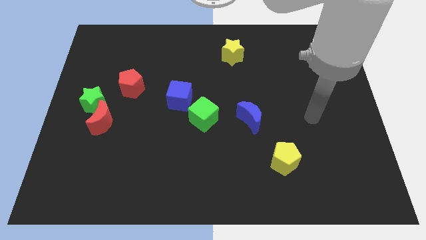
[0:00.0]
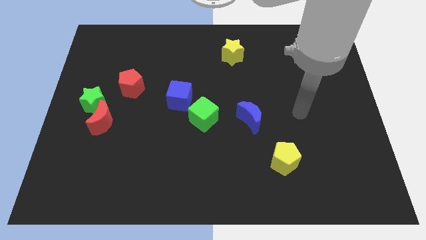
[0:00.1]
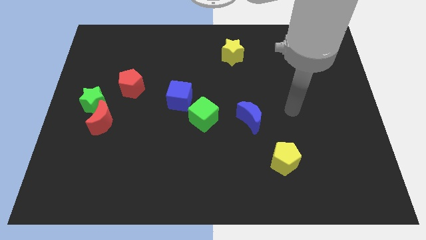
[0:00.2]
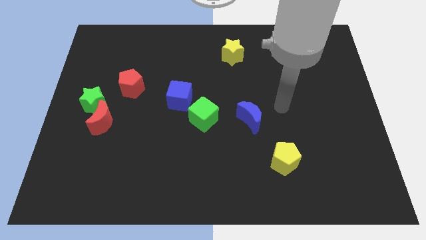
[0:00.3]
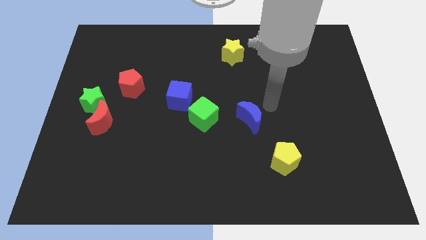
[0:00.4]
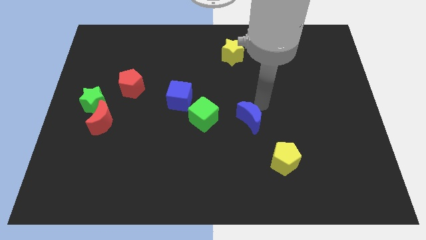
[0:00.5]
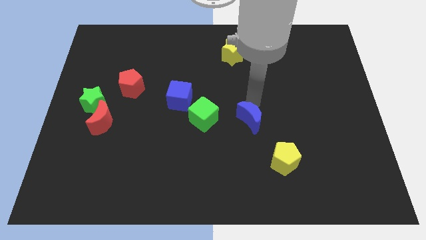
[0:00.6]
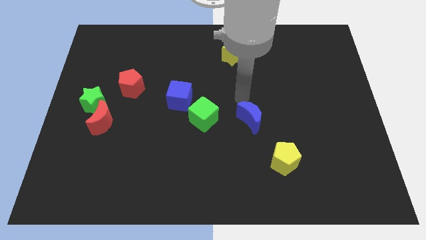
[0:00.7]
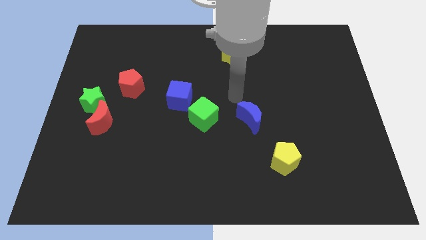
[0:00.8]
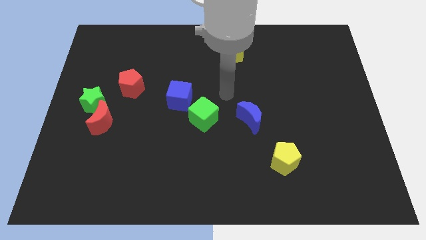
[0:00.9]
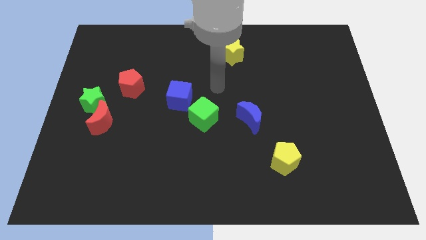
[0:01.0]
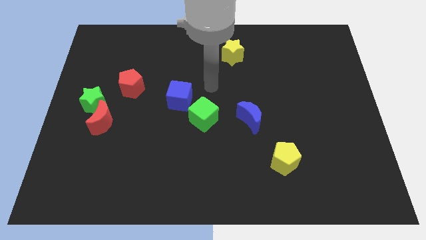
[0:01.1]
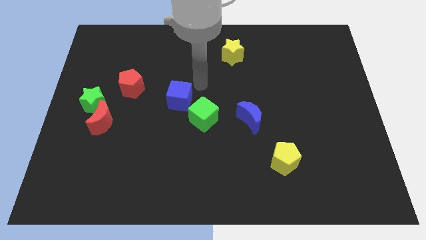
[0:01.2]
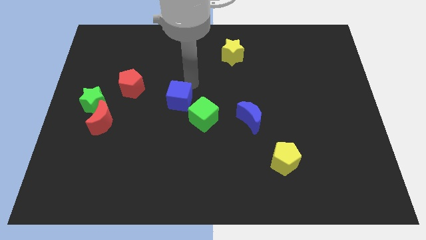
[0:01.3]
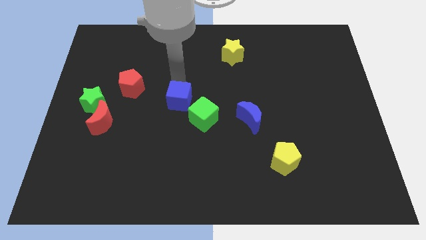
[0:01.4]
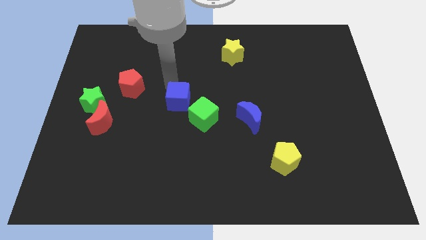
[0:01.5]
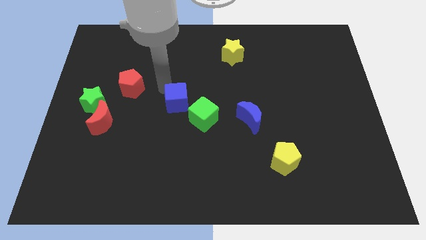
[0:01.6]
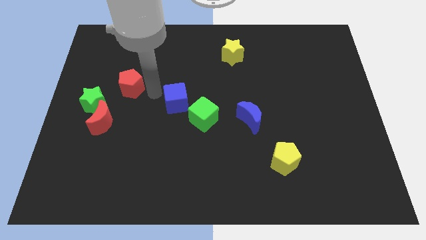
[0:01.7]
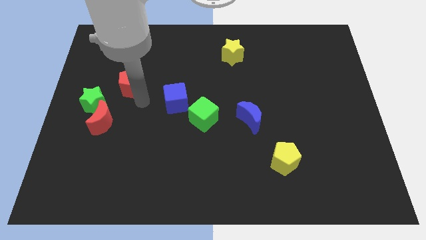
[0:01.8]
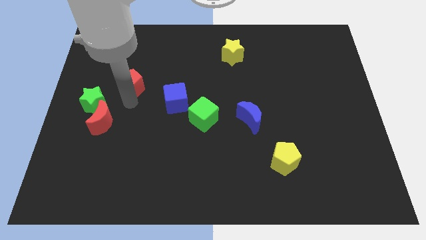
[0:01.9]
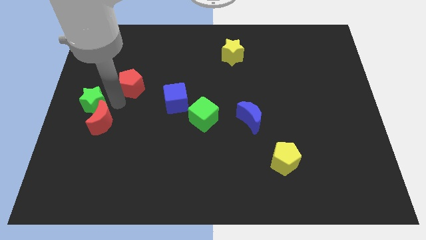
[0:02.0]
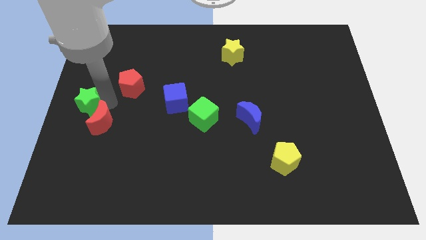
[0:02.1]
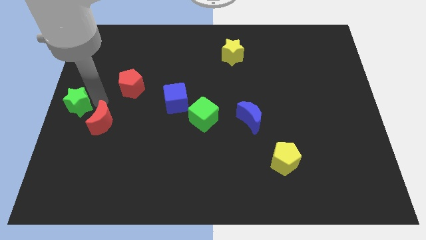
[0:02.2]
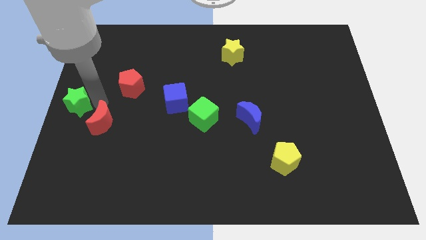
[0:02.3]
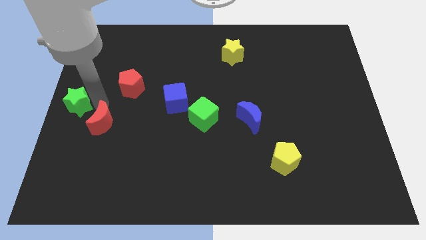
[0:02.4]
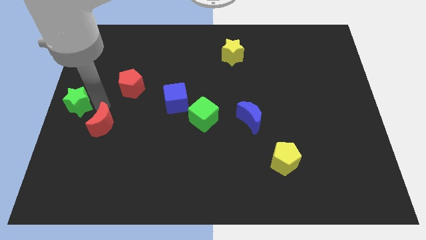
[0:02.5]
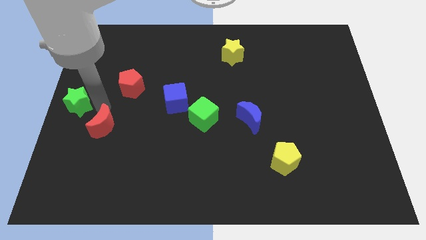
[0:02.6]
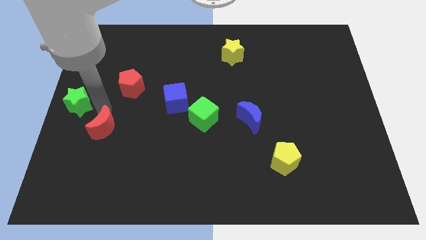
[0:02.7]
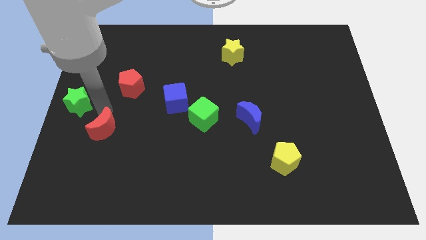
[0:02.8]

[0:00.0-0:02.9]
pull the red moon apart from the green star

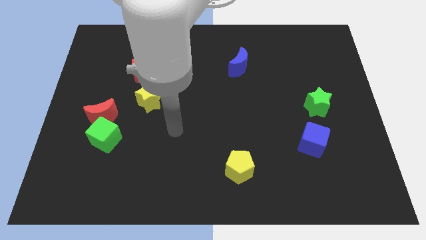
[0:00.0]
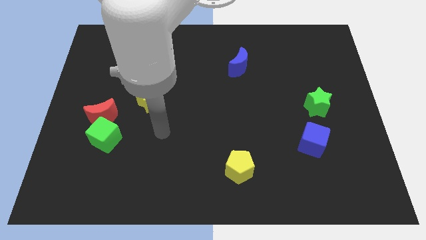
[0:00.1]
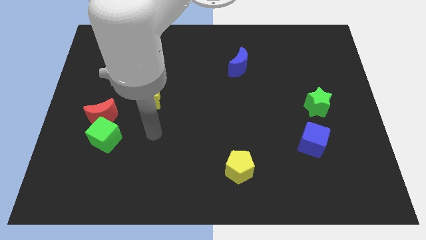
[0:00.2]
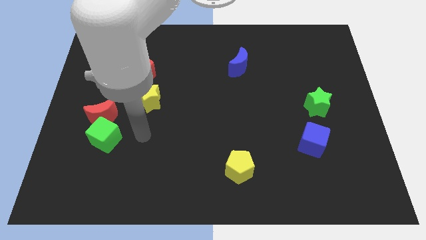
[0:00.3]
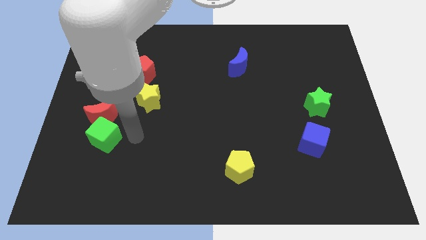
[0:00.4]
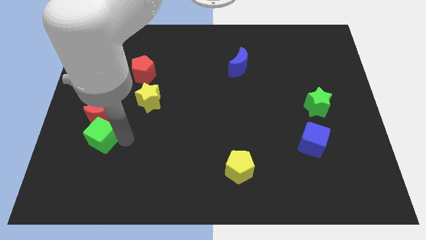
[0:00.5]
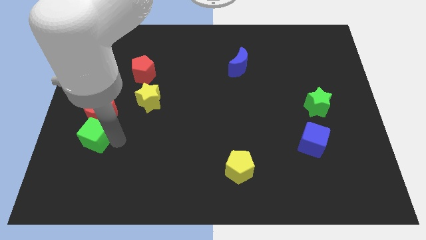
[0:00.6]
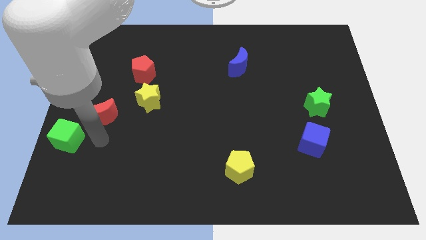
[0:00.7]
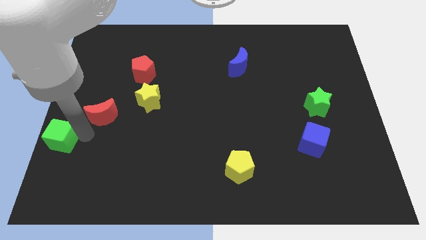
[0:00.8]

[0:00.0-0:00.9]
move the red moon away from the green cube

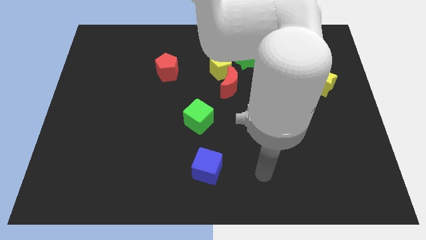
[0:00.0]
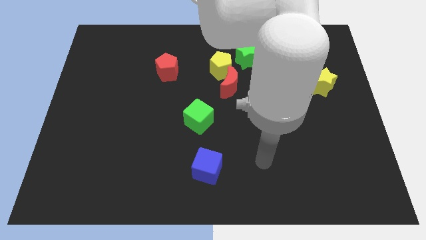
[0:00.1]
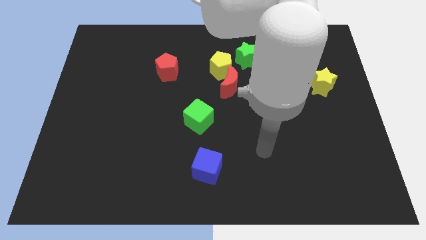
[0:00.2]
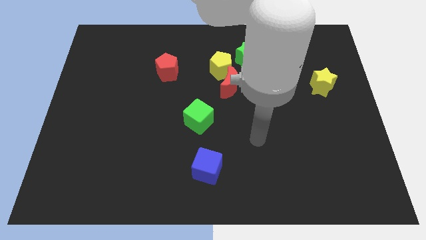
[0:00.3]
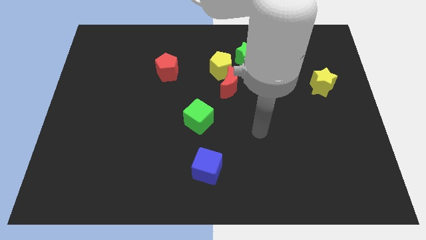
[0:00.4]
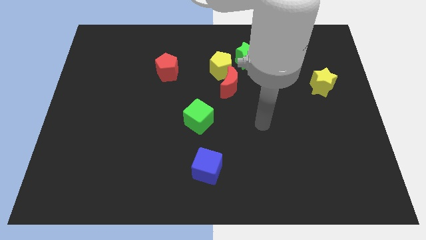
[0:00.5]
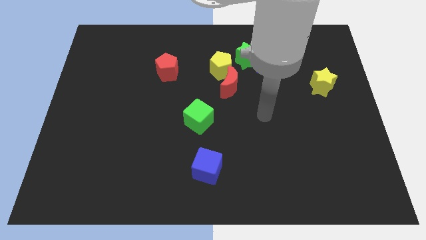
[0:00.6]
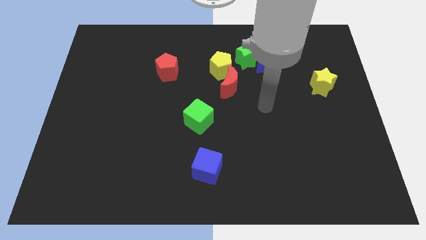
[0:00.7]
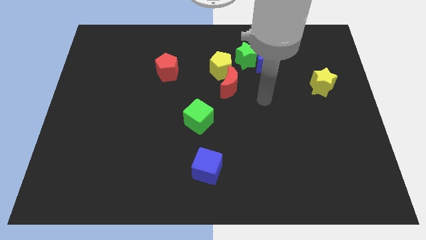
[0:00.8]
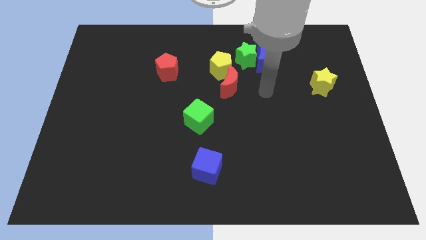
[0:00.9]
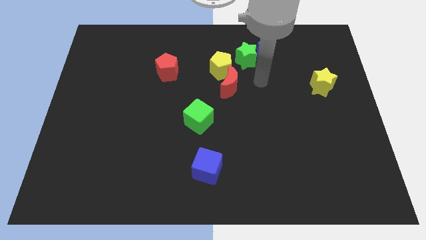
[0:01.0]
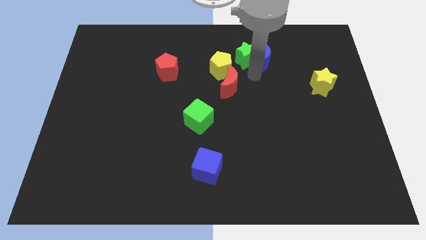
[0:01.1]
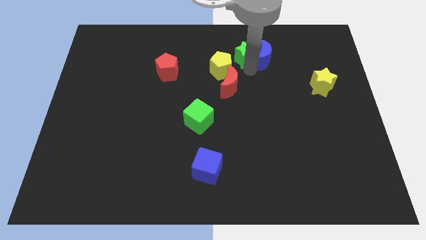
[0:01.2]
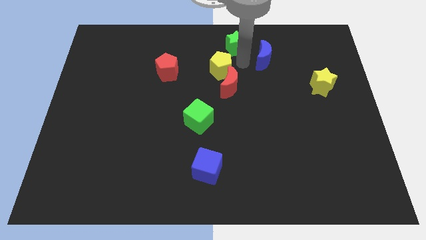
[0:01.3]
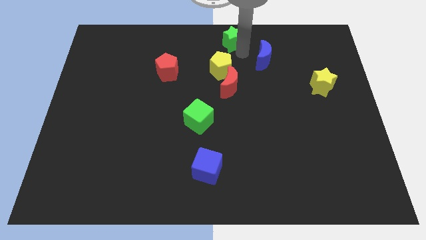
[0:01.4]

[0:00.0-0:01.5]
move the blue moon away from the green star

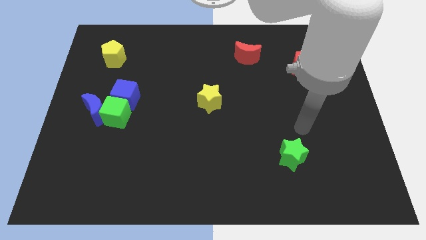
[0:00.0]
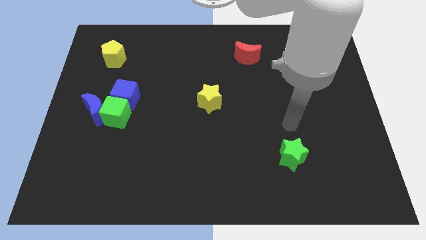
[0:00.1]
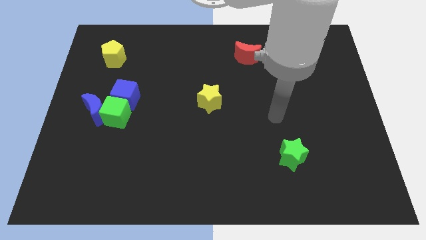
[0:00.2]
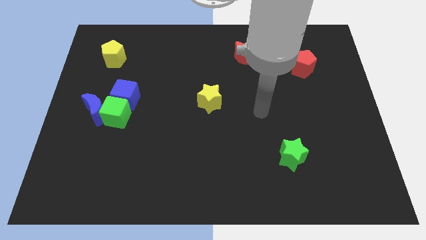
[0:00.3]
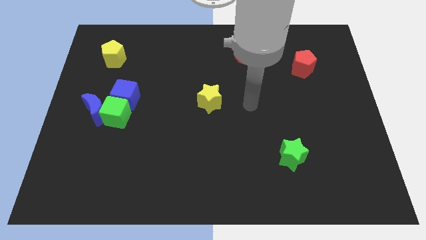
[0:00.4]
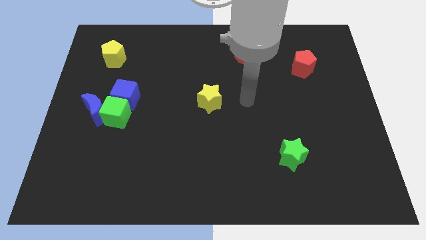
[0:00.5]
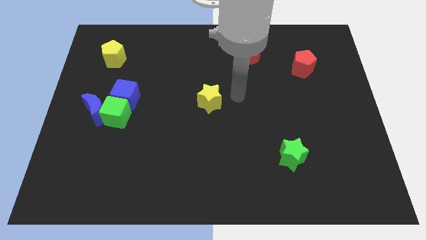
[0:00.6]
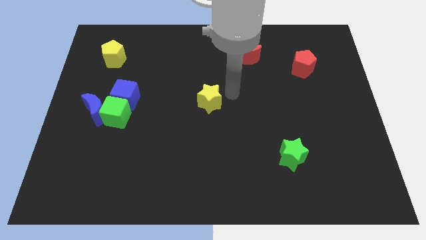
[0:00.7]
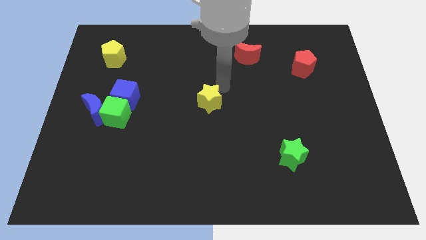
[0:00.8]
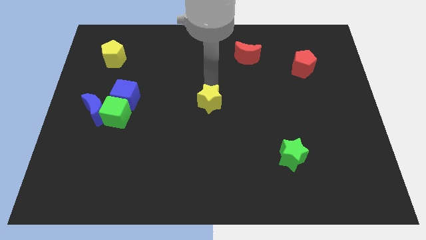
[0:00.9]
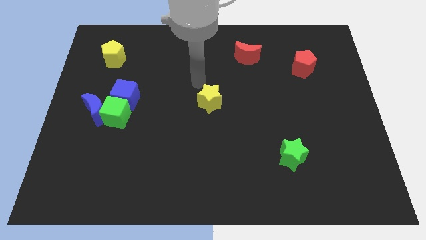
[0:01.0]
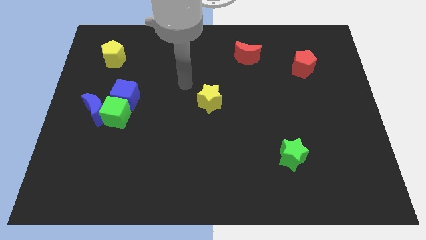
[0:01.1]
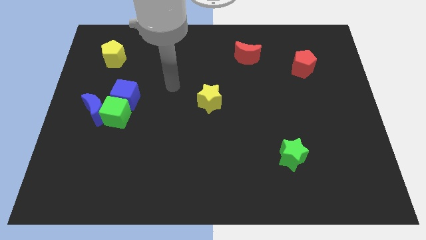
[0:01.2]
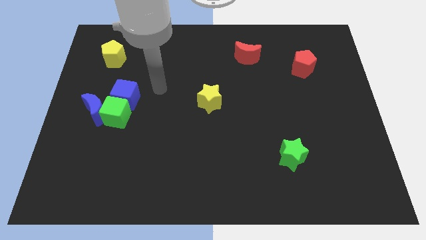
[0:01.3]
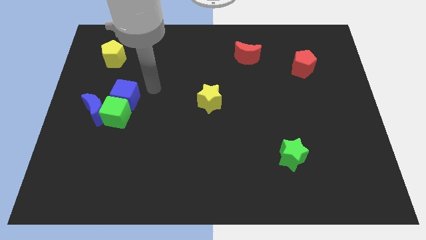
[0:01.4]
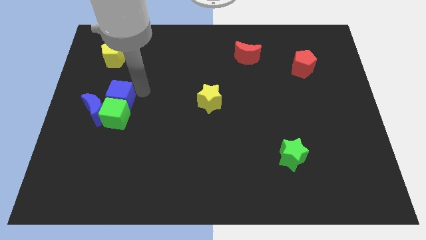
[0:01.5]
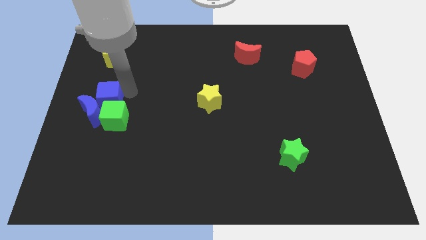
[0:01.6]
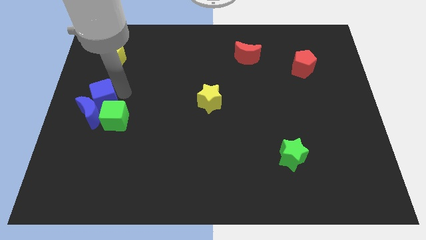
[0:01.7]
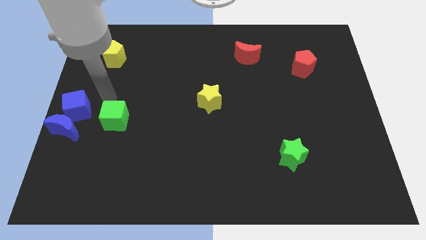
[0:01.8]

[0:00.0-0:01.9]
separate the green cube from the blue moon and blue cube

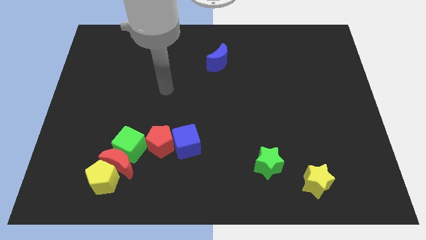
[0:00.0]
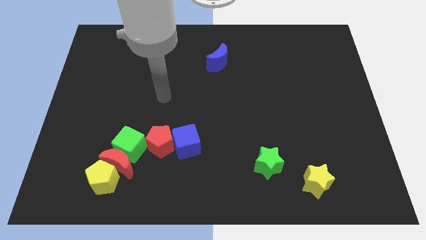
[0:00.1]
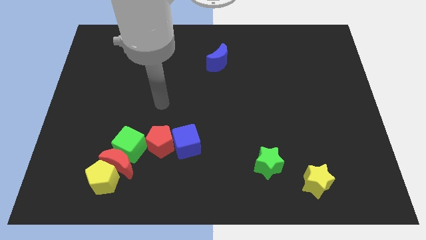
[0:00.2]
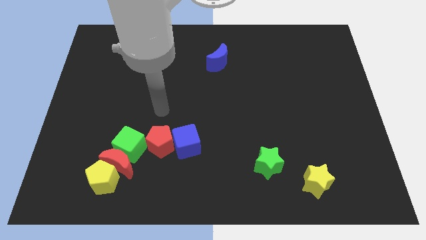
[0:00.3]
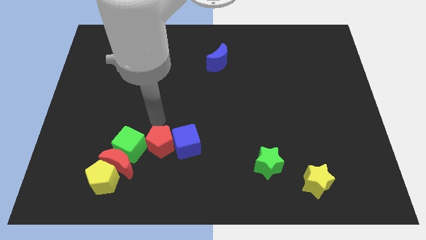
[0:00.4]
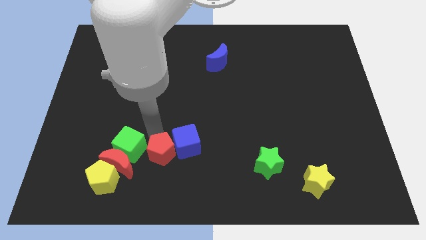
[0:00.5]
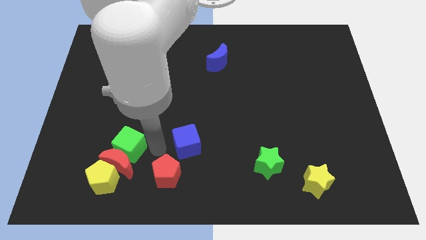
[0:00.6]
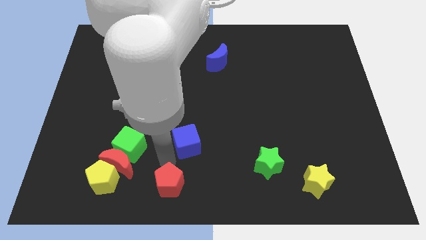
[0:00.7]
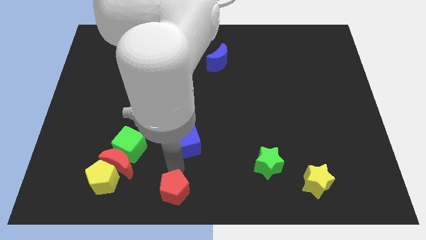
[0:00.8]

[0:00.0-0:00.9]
move the blue cube away from the red pentagon

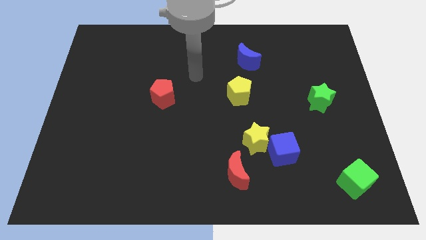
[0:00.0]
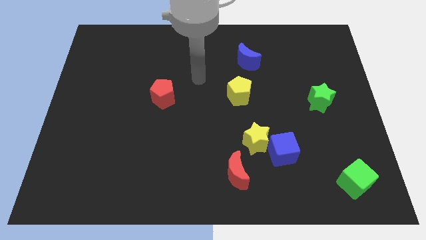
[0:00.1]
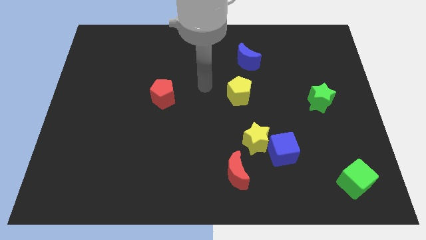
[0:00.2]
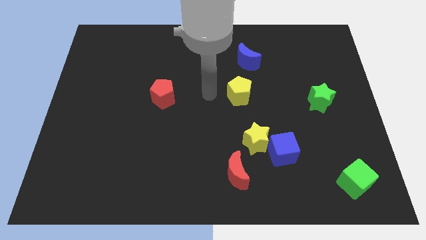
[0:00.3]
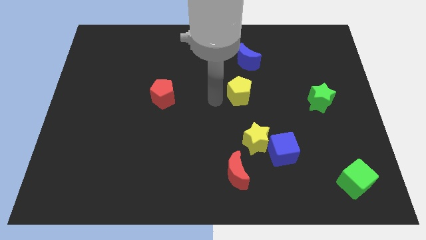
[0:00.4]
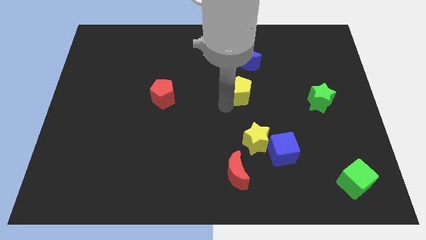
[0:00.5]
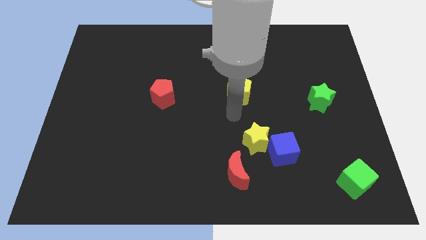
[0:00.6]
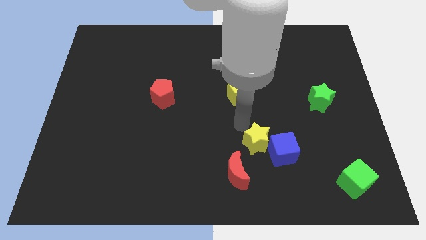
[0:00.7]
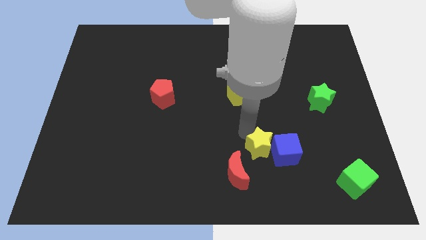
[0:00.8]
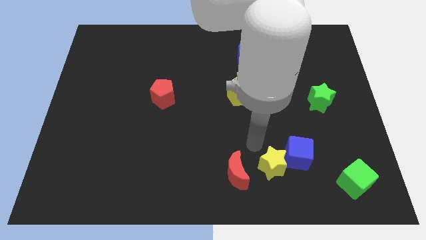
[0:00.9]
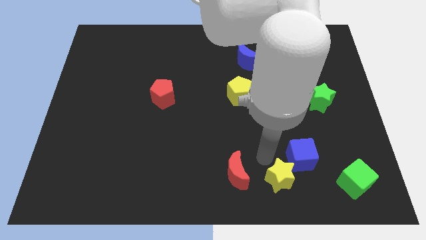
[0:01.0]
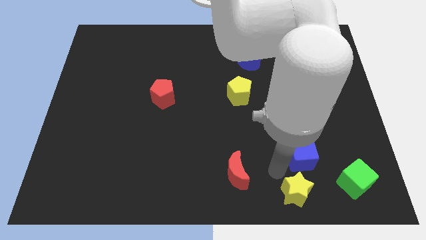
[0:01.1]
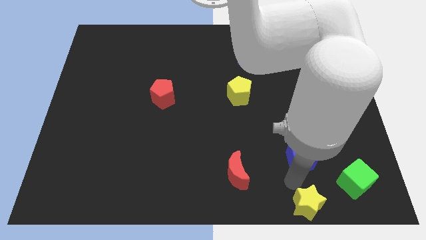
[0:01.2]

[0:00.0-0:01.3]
separate the blue cube from the yellow star
